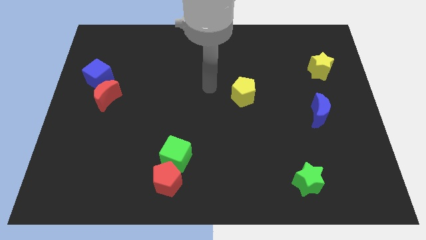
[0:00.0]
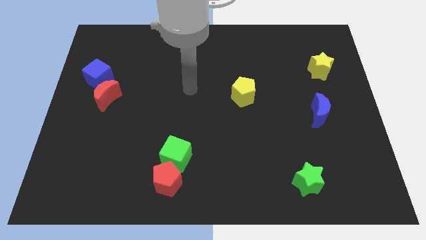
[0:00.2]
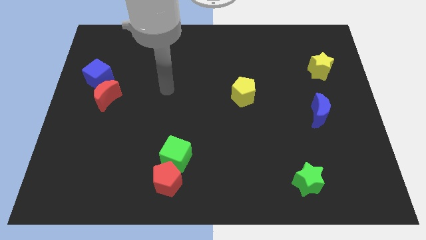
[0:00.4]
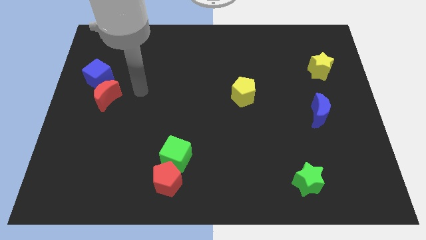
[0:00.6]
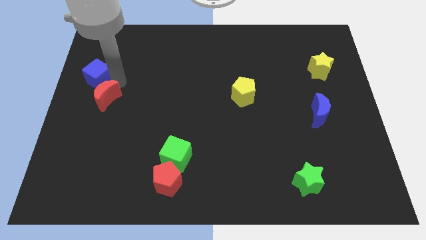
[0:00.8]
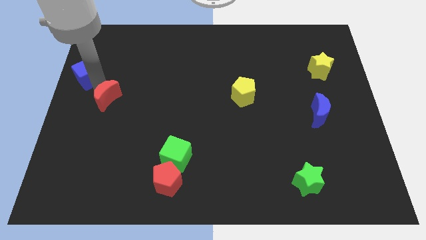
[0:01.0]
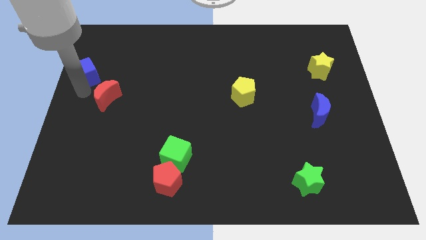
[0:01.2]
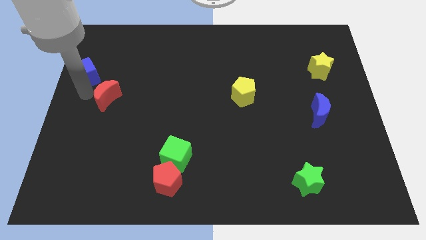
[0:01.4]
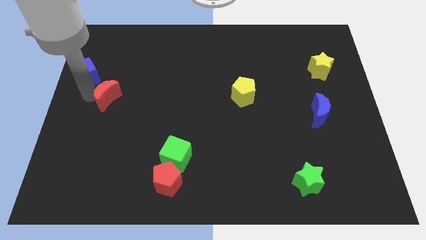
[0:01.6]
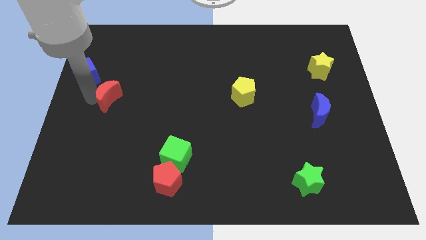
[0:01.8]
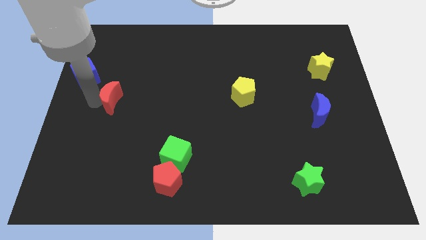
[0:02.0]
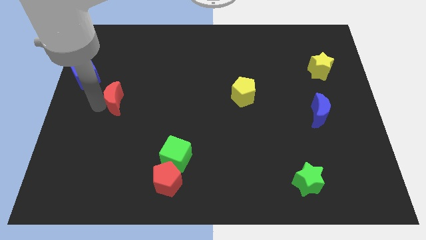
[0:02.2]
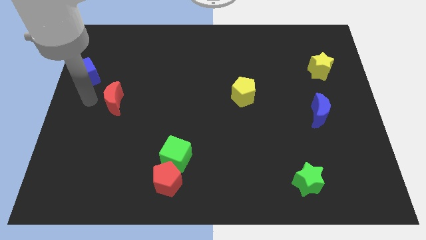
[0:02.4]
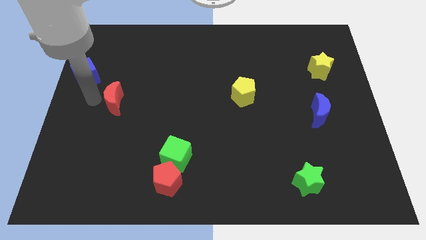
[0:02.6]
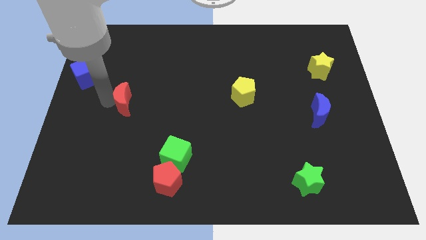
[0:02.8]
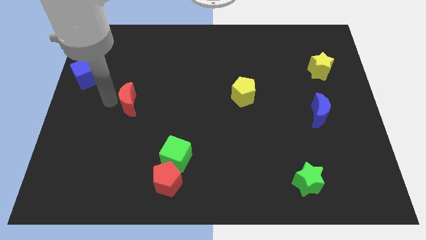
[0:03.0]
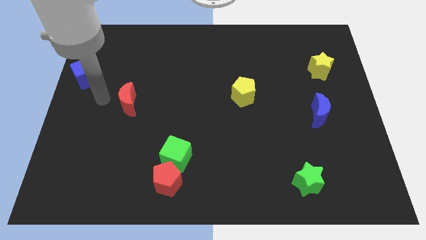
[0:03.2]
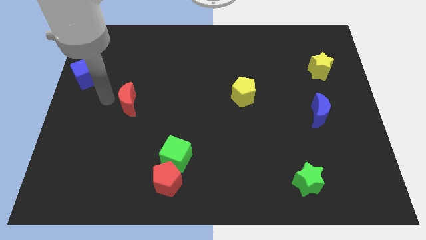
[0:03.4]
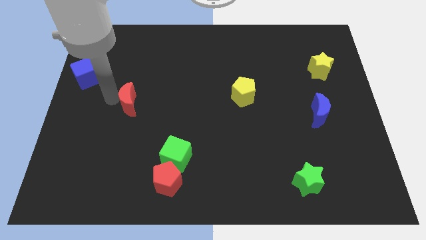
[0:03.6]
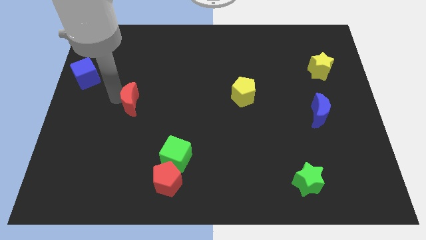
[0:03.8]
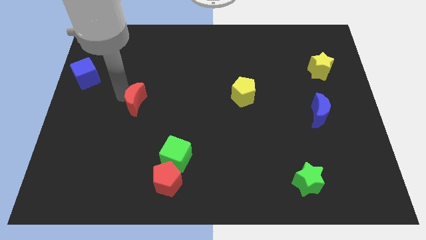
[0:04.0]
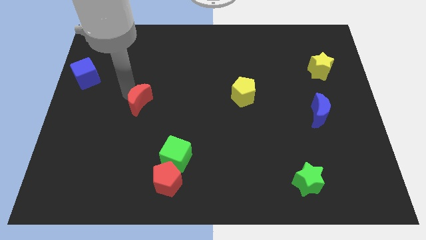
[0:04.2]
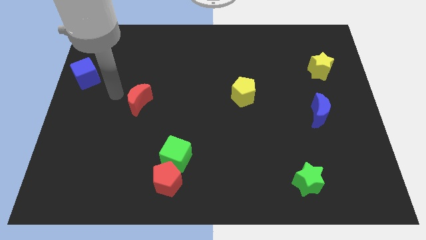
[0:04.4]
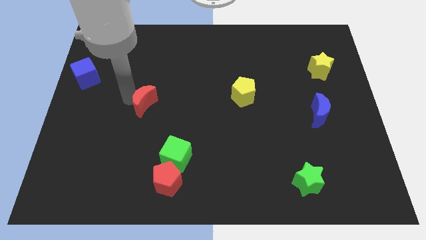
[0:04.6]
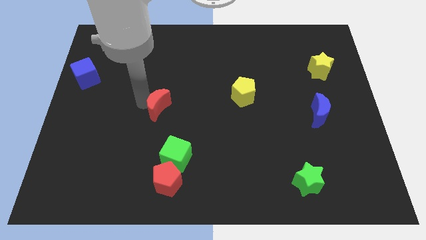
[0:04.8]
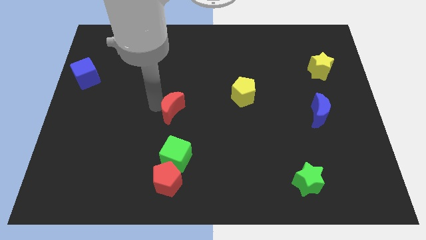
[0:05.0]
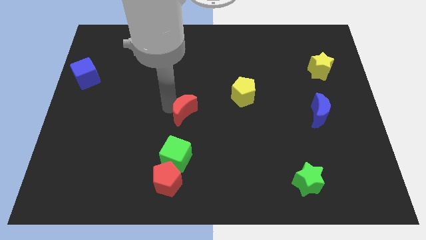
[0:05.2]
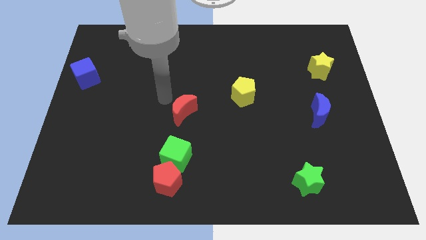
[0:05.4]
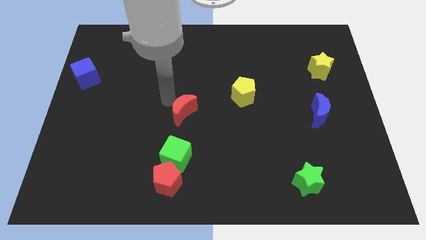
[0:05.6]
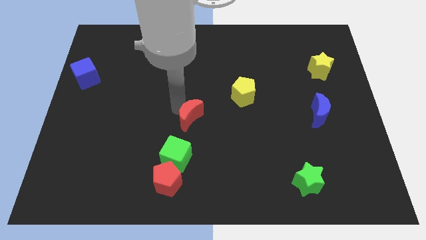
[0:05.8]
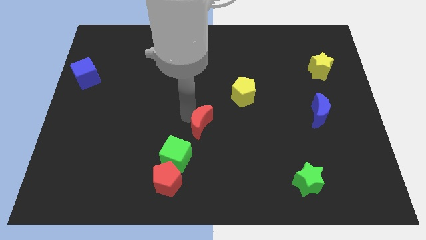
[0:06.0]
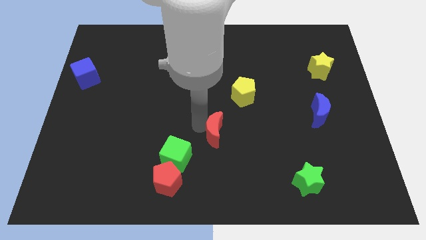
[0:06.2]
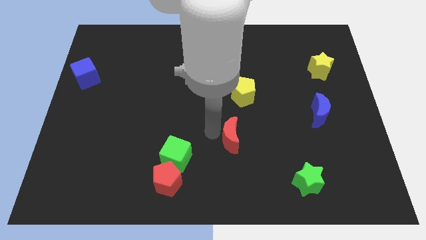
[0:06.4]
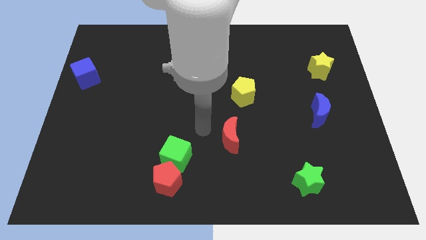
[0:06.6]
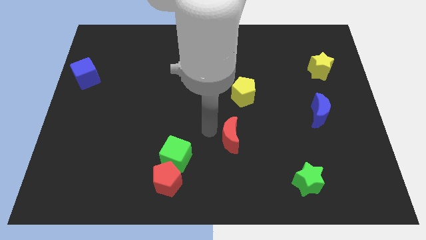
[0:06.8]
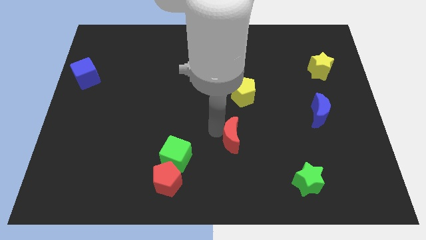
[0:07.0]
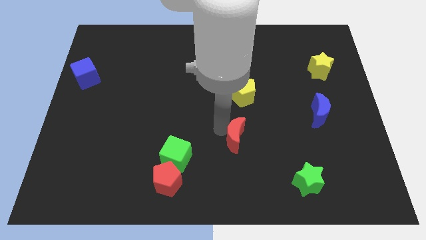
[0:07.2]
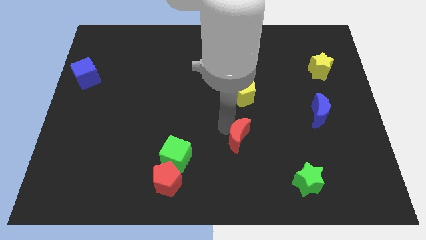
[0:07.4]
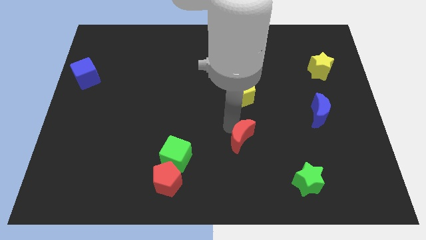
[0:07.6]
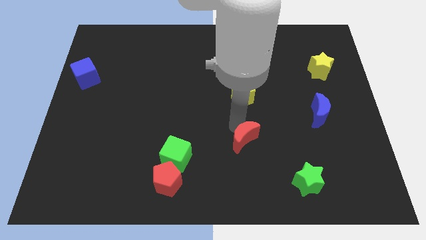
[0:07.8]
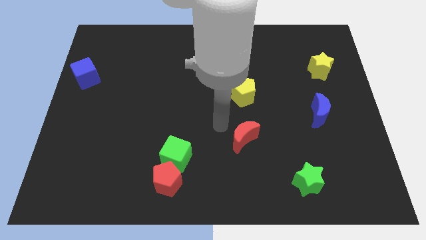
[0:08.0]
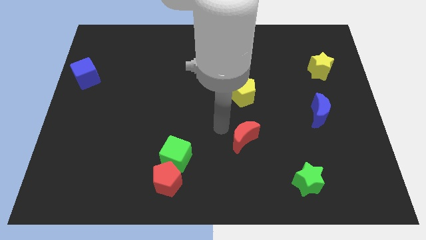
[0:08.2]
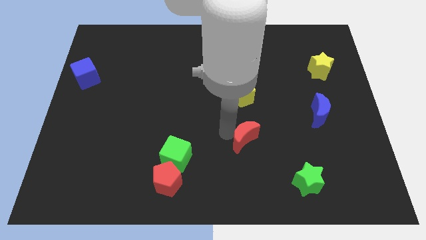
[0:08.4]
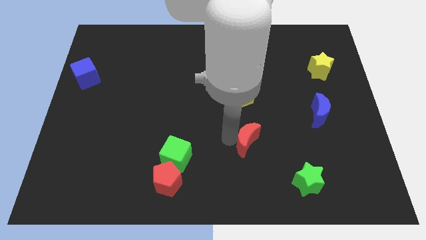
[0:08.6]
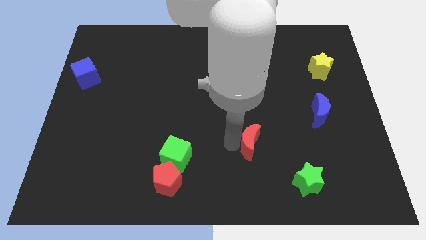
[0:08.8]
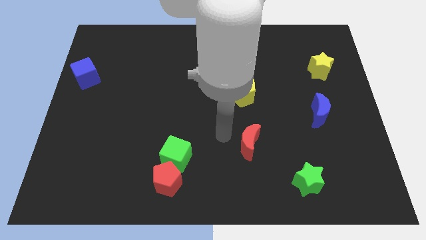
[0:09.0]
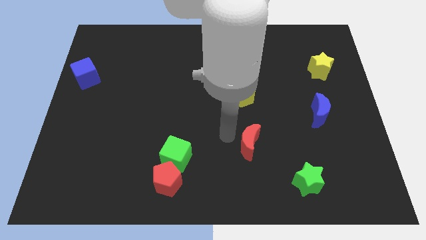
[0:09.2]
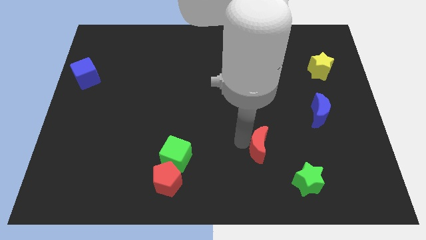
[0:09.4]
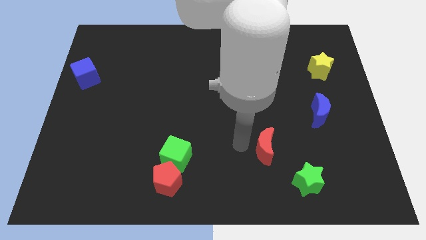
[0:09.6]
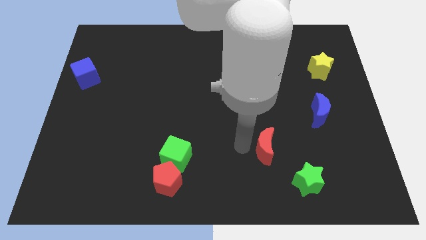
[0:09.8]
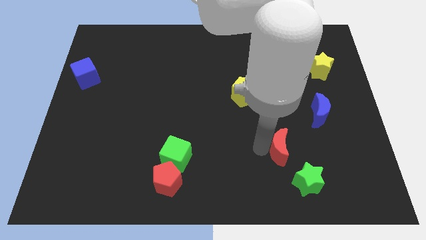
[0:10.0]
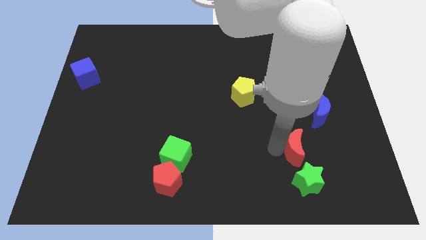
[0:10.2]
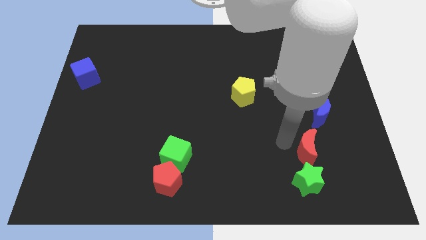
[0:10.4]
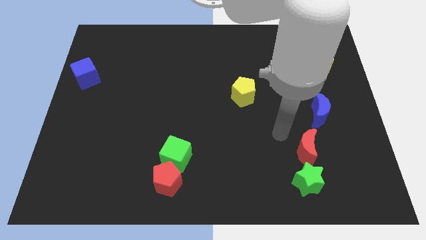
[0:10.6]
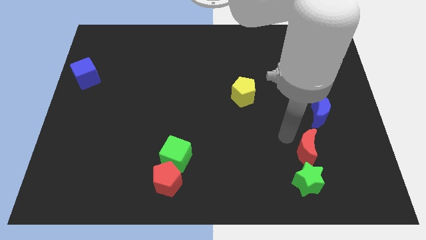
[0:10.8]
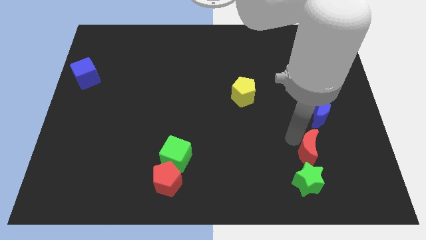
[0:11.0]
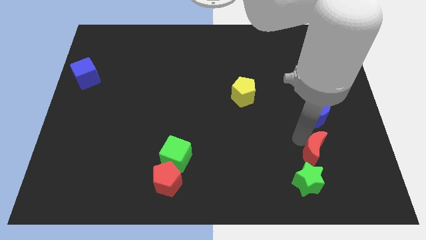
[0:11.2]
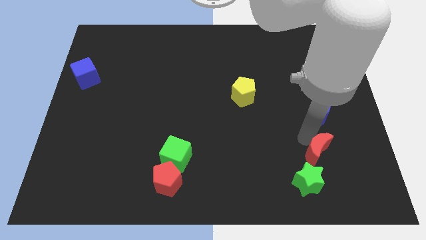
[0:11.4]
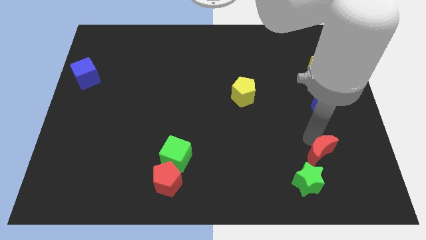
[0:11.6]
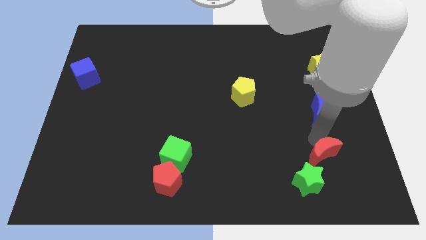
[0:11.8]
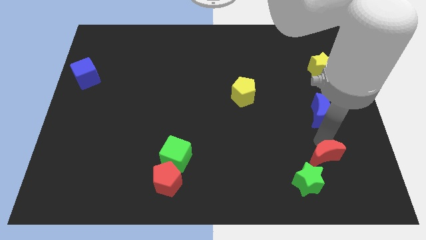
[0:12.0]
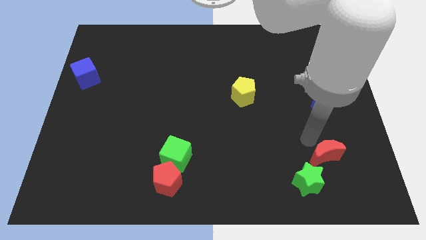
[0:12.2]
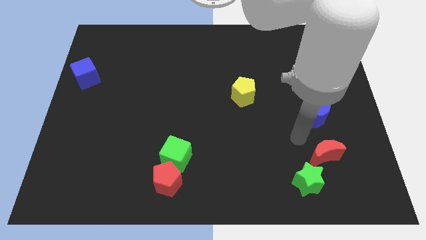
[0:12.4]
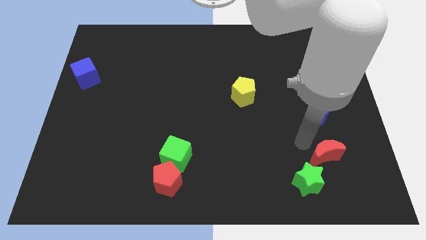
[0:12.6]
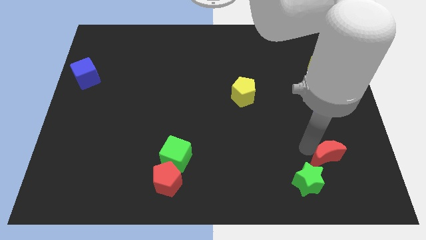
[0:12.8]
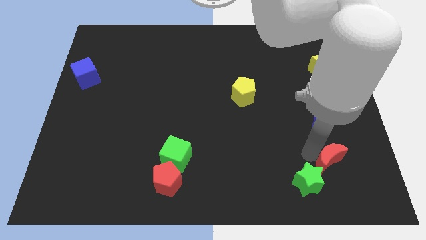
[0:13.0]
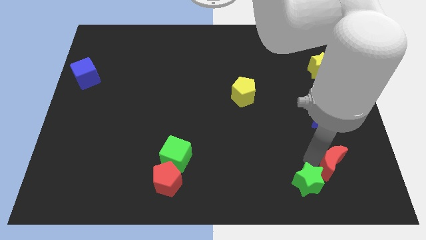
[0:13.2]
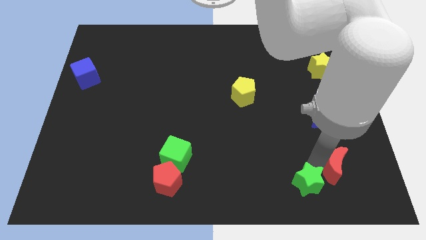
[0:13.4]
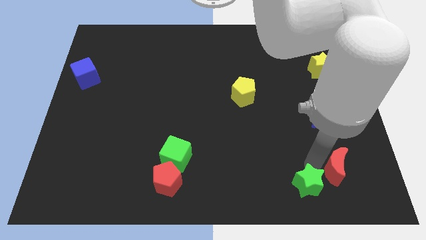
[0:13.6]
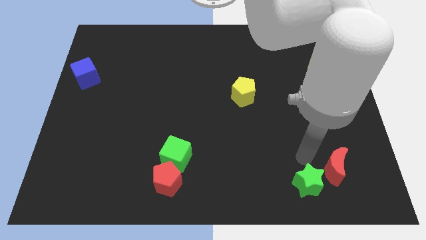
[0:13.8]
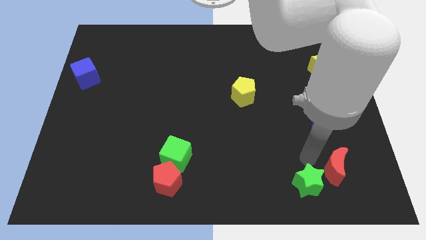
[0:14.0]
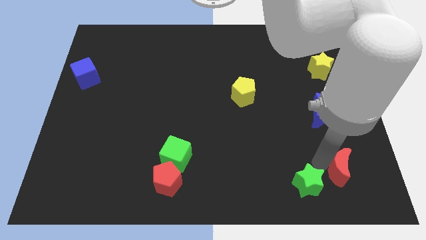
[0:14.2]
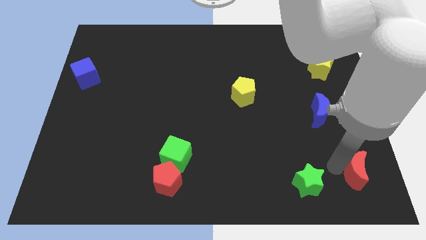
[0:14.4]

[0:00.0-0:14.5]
put the red moon to the lower right corner

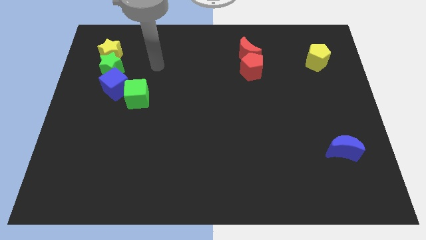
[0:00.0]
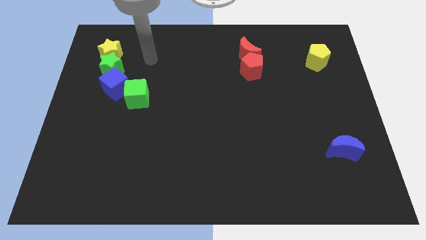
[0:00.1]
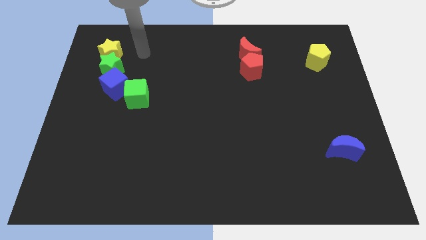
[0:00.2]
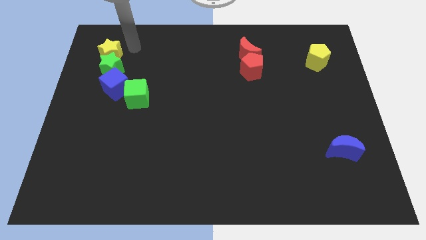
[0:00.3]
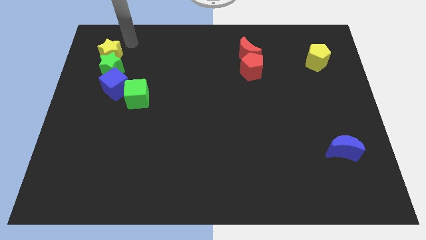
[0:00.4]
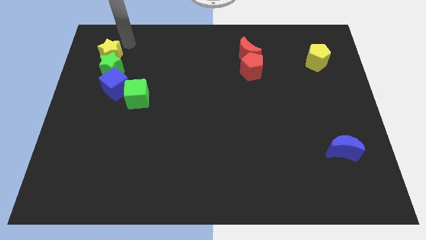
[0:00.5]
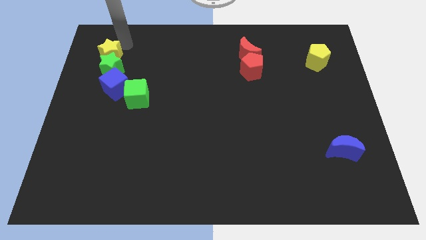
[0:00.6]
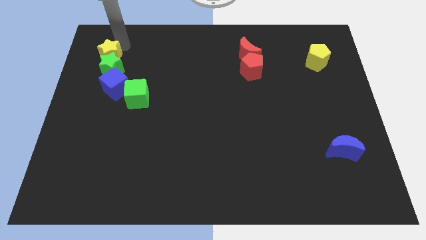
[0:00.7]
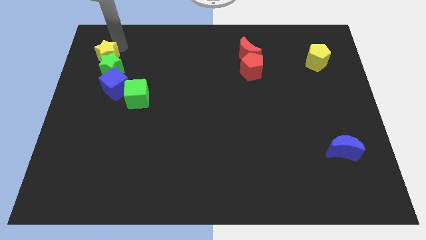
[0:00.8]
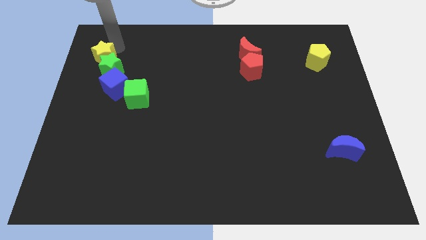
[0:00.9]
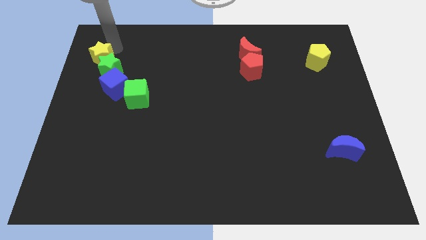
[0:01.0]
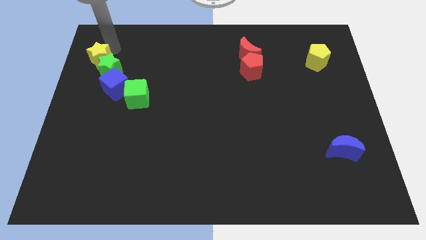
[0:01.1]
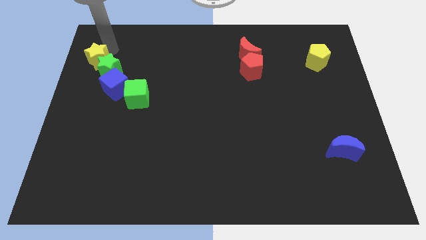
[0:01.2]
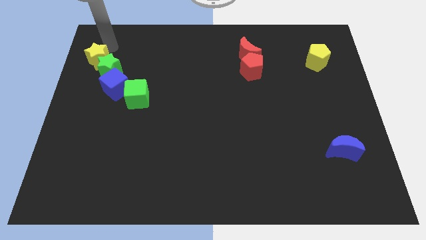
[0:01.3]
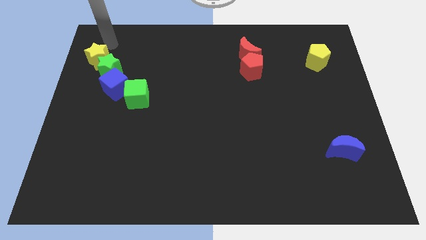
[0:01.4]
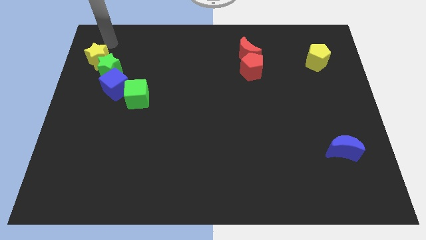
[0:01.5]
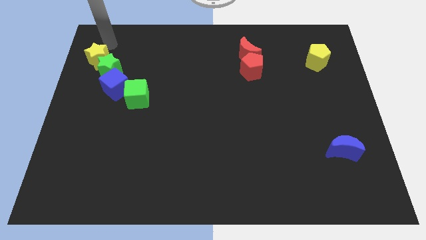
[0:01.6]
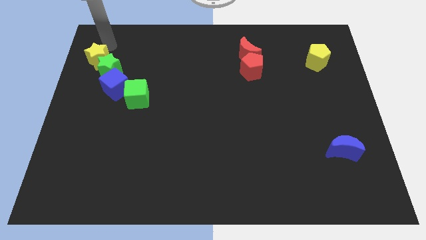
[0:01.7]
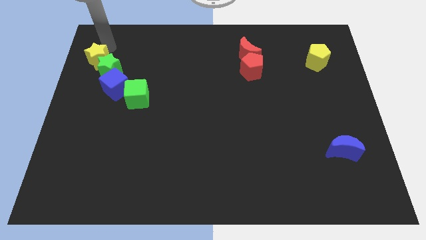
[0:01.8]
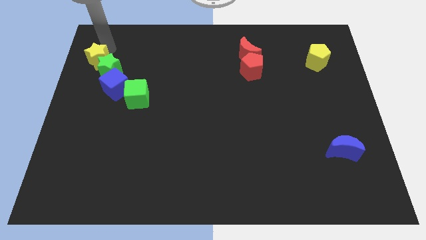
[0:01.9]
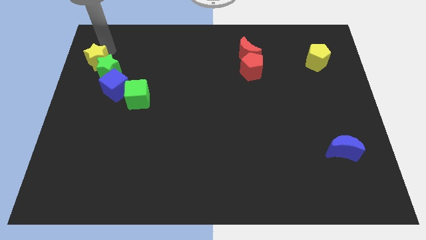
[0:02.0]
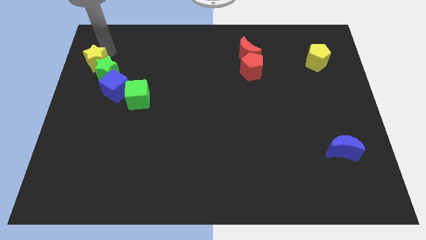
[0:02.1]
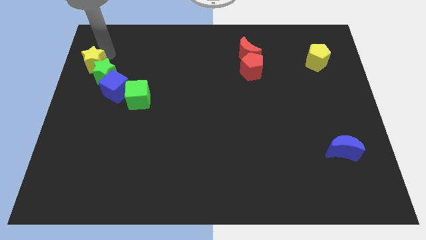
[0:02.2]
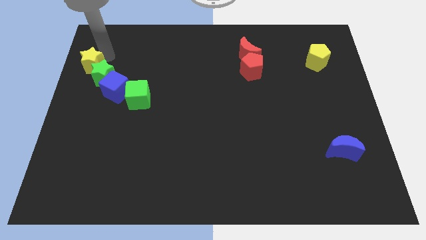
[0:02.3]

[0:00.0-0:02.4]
push the yellow star to the left side
